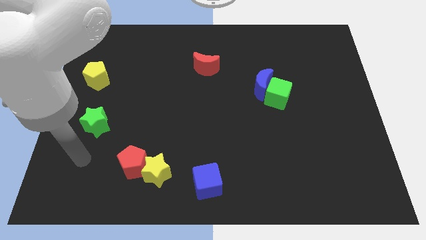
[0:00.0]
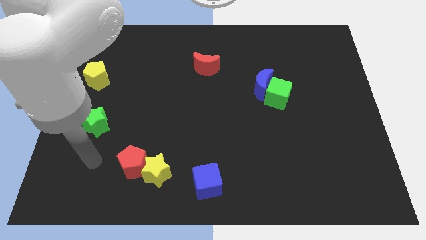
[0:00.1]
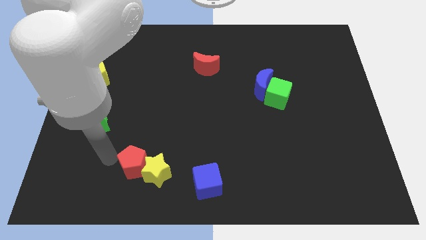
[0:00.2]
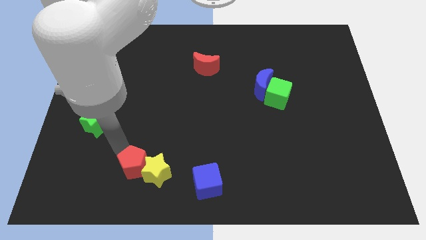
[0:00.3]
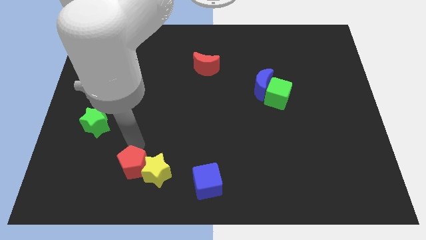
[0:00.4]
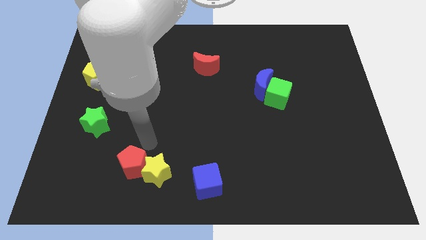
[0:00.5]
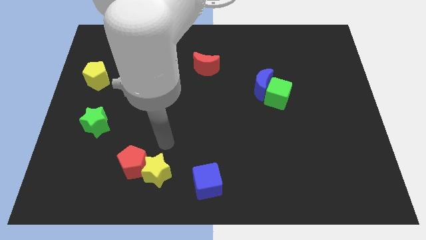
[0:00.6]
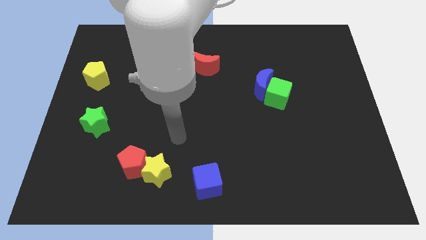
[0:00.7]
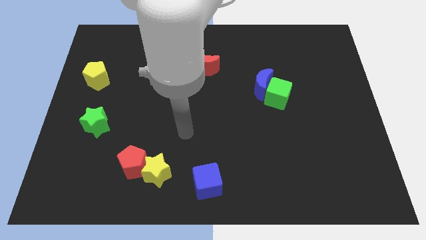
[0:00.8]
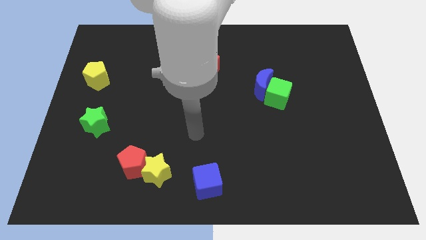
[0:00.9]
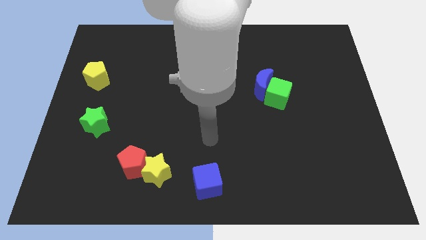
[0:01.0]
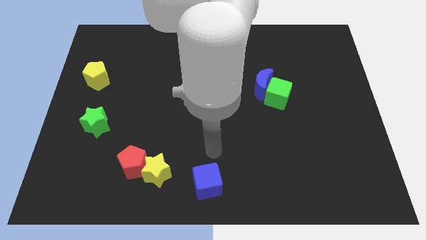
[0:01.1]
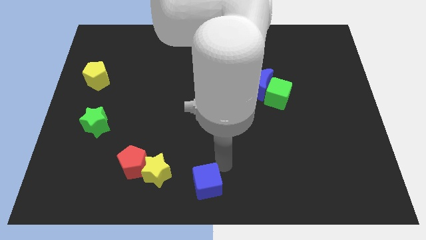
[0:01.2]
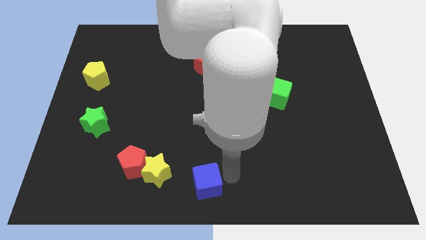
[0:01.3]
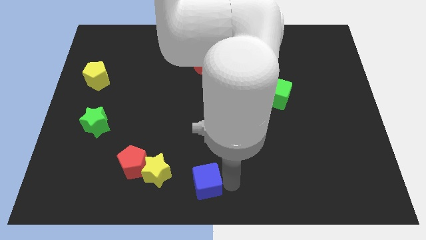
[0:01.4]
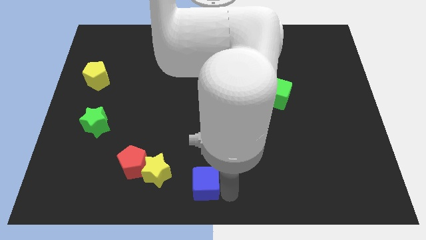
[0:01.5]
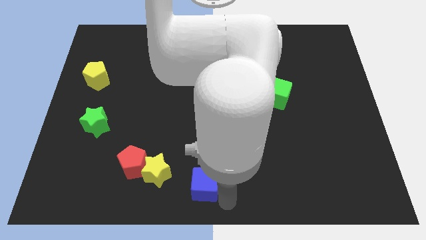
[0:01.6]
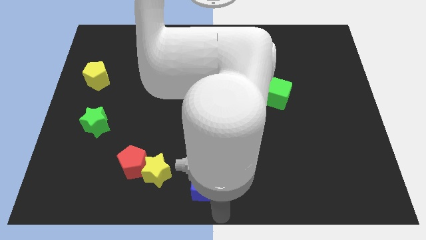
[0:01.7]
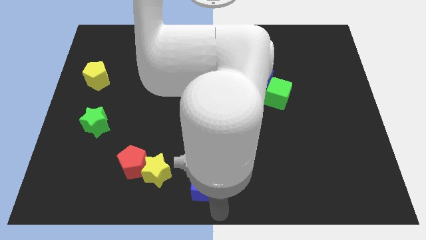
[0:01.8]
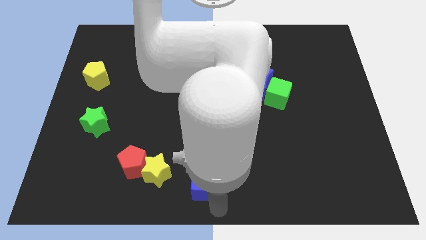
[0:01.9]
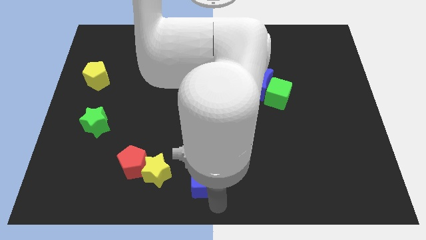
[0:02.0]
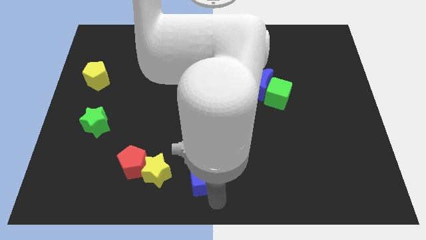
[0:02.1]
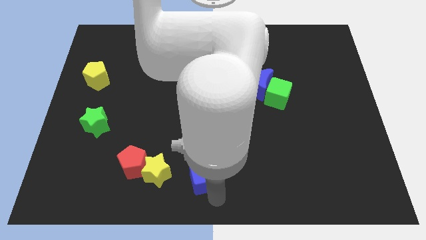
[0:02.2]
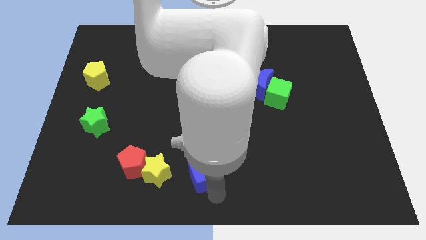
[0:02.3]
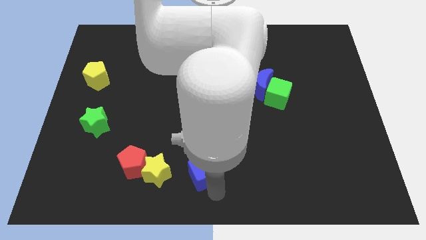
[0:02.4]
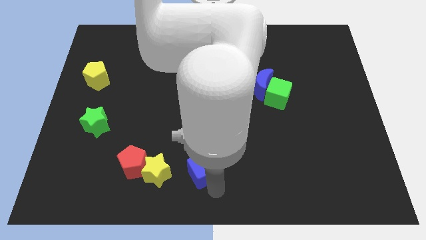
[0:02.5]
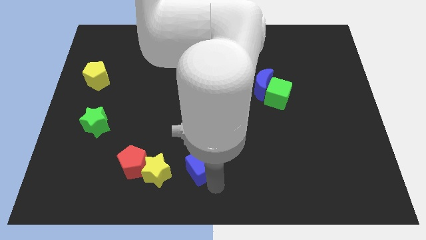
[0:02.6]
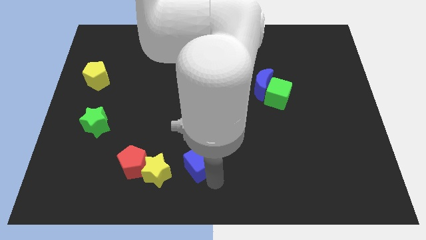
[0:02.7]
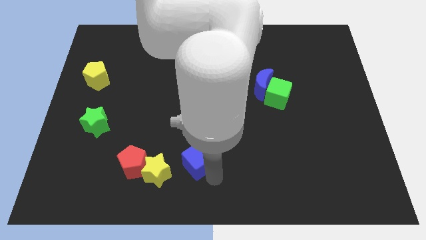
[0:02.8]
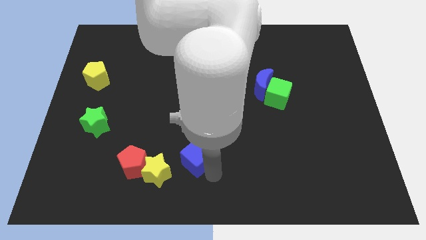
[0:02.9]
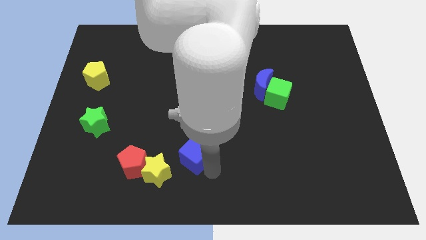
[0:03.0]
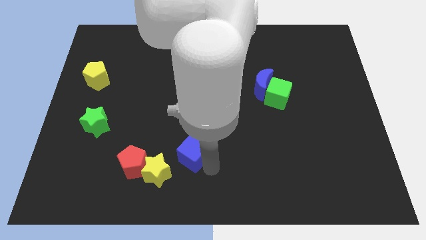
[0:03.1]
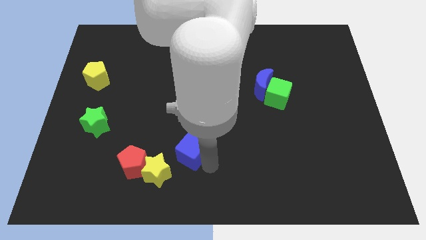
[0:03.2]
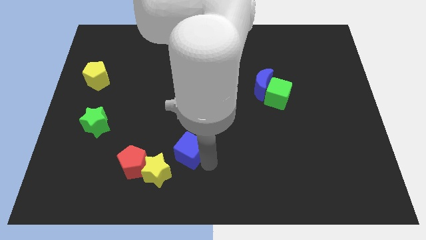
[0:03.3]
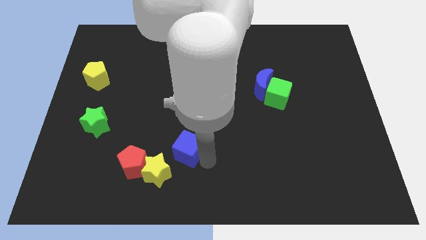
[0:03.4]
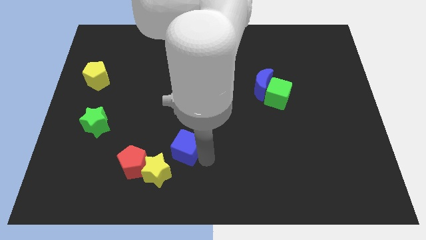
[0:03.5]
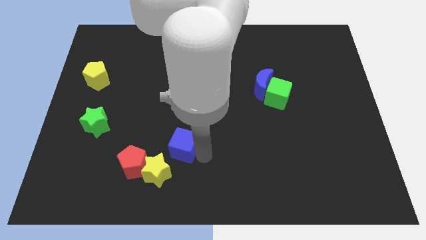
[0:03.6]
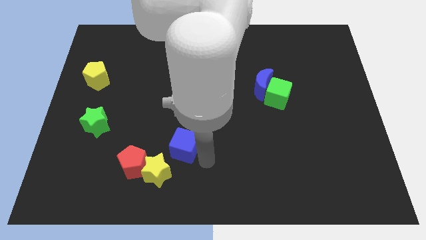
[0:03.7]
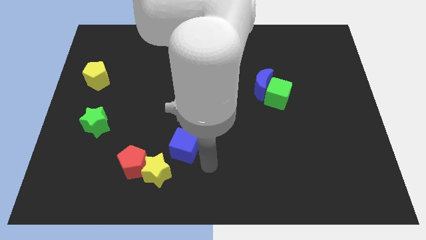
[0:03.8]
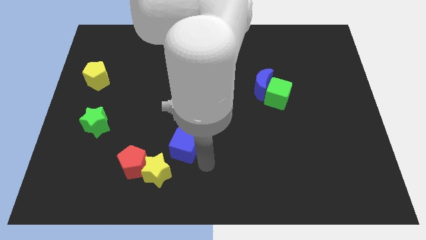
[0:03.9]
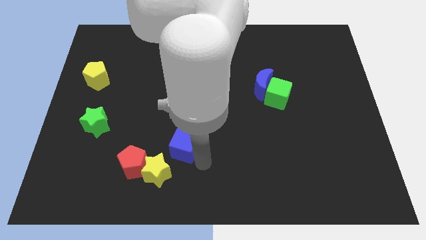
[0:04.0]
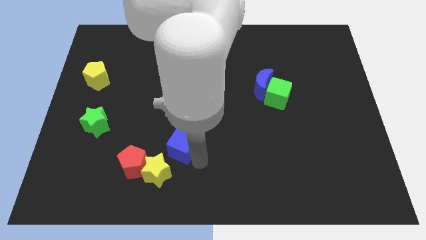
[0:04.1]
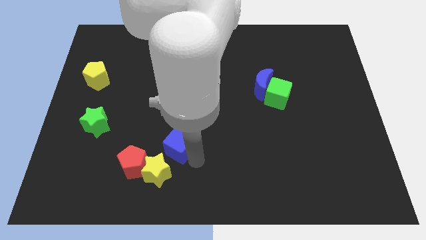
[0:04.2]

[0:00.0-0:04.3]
slide the blue cube to the top side of the yellow star

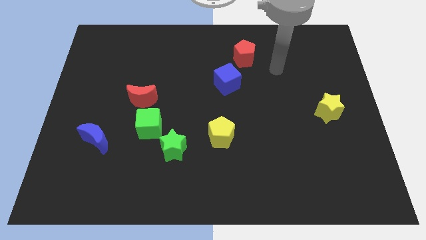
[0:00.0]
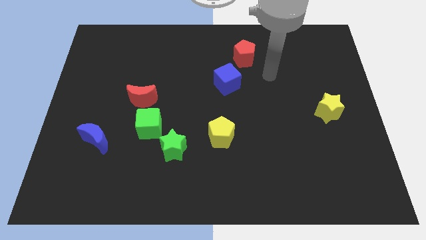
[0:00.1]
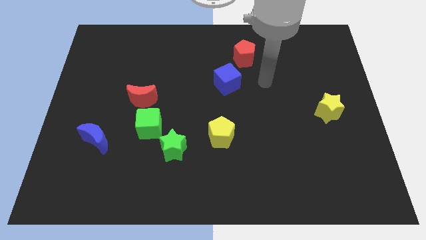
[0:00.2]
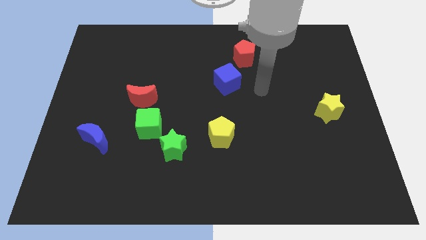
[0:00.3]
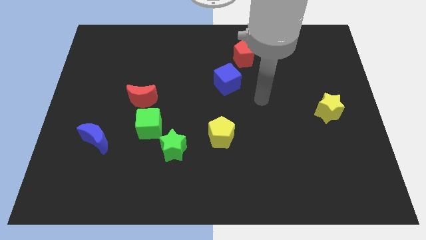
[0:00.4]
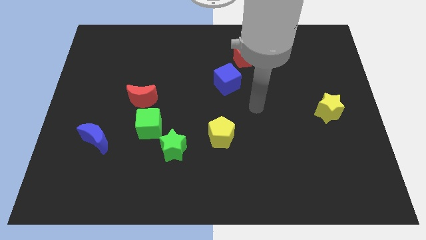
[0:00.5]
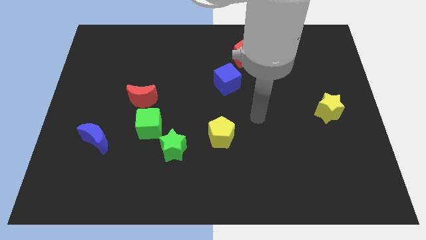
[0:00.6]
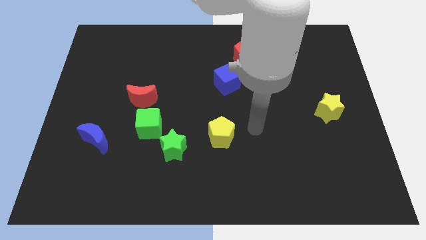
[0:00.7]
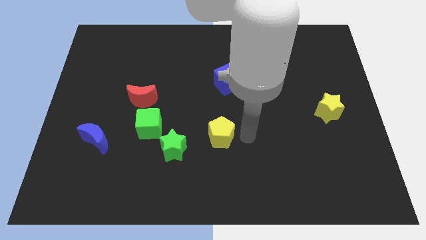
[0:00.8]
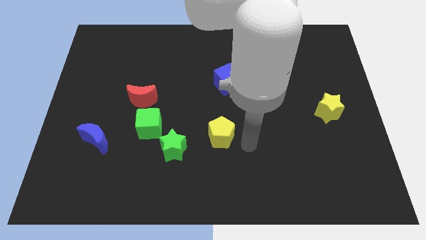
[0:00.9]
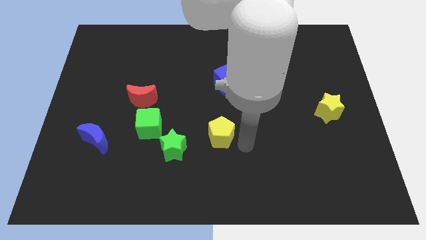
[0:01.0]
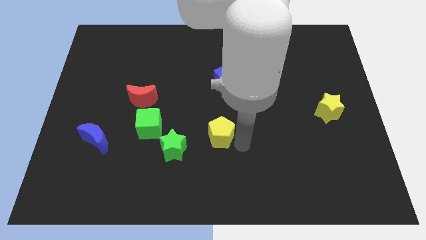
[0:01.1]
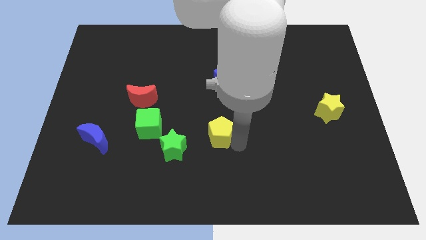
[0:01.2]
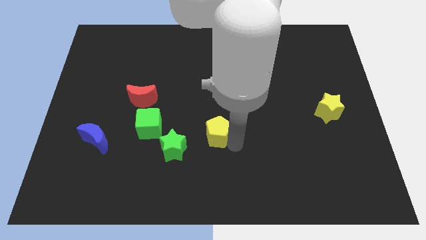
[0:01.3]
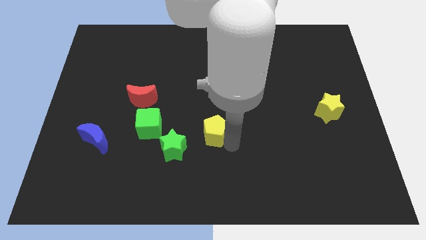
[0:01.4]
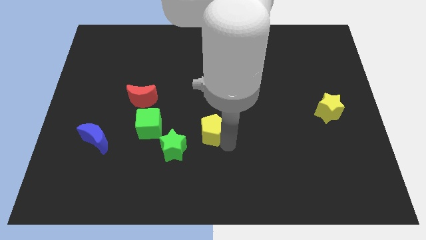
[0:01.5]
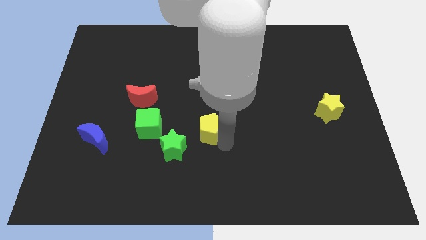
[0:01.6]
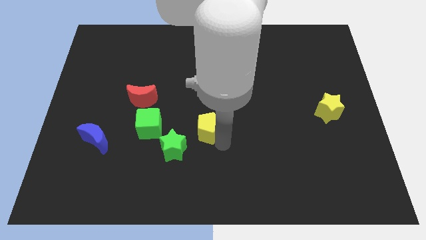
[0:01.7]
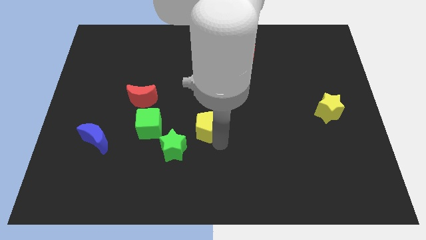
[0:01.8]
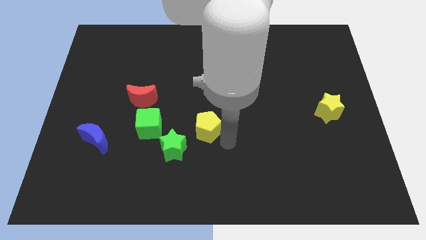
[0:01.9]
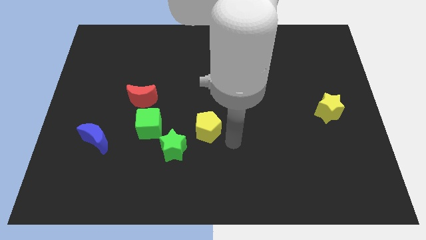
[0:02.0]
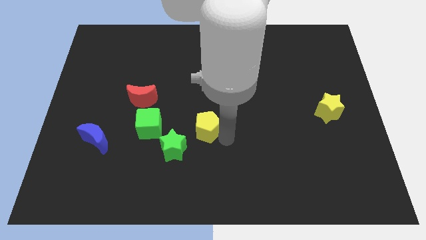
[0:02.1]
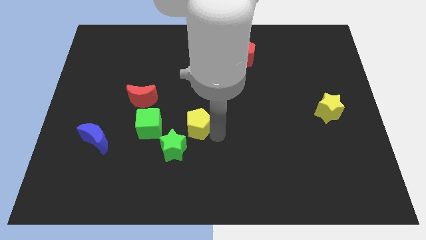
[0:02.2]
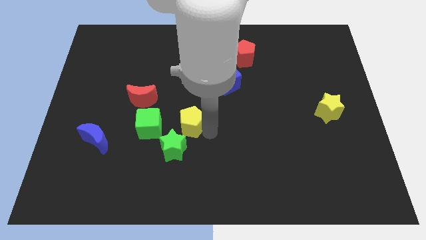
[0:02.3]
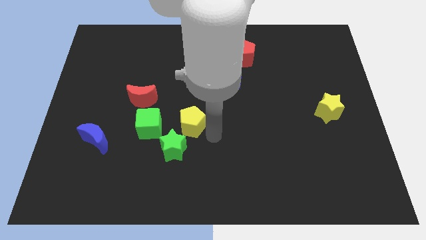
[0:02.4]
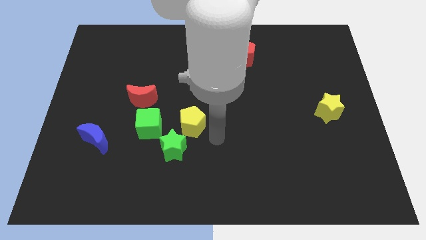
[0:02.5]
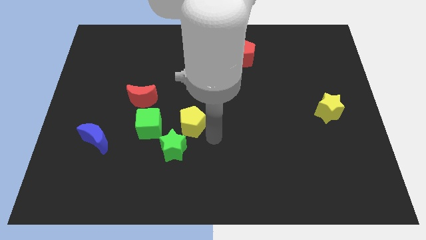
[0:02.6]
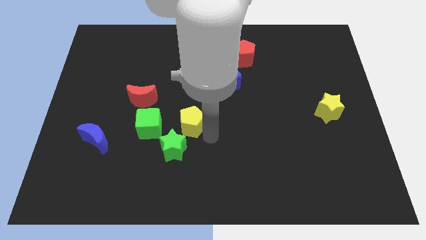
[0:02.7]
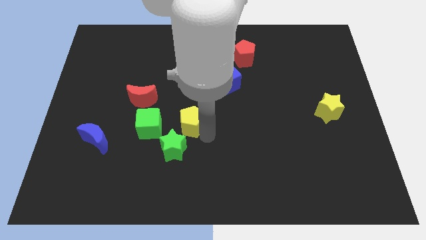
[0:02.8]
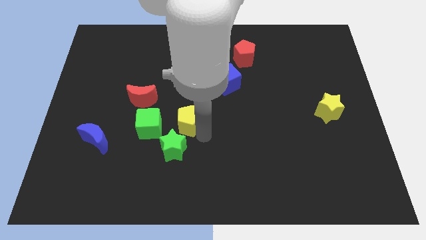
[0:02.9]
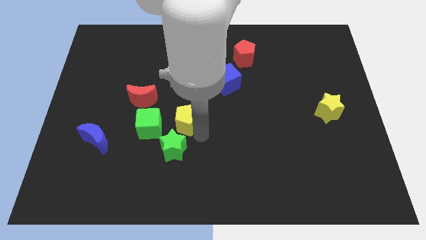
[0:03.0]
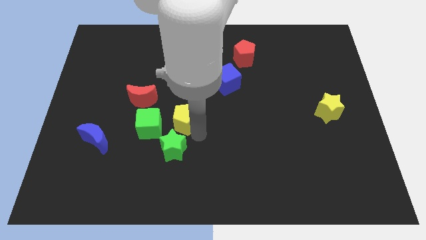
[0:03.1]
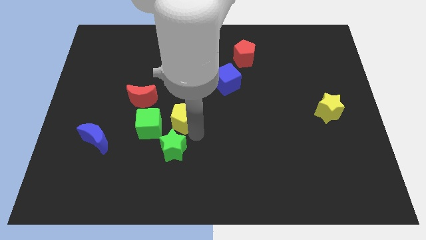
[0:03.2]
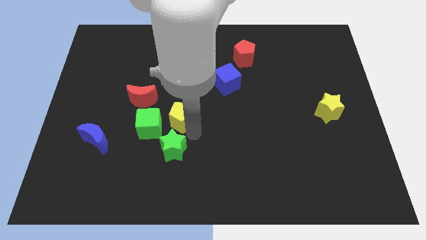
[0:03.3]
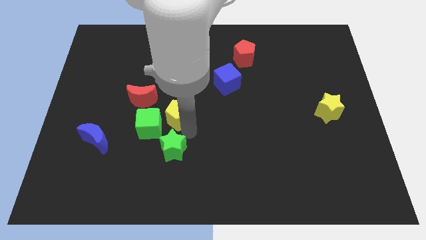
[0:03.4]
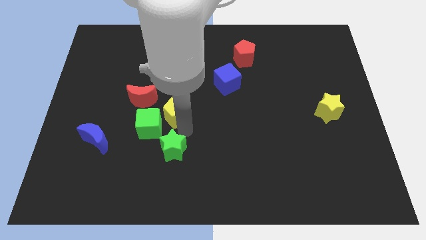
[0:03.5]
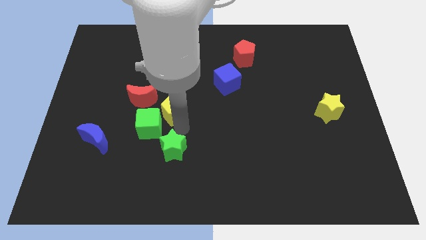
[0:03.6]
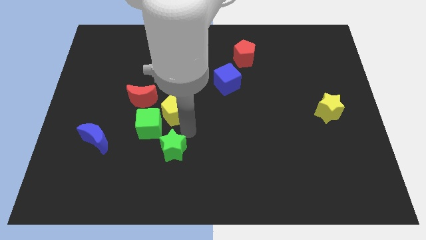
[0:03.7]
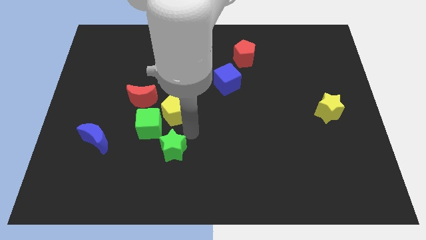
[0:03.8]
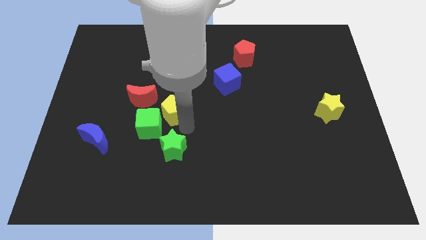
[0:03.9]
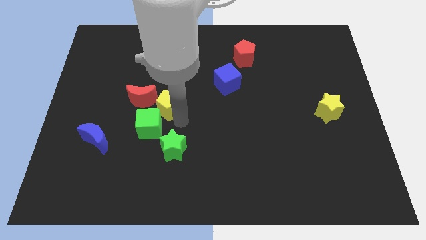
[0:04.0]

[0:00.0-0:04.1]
slide the yellow pentagon to the top side of the green cube
